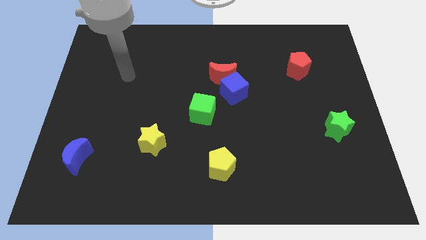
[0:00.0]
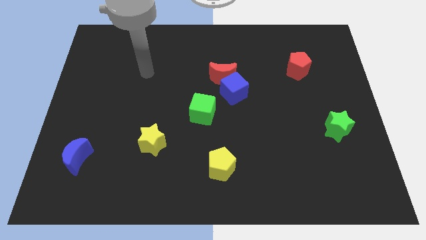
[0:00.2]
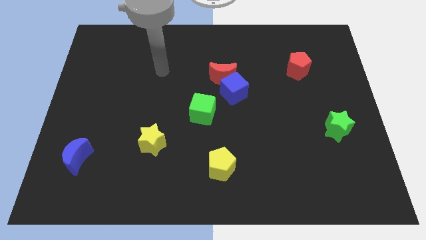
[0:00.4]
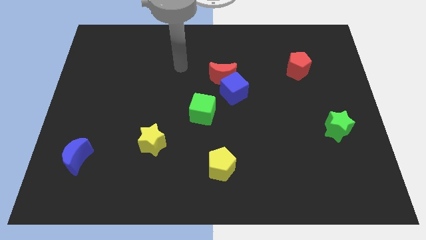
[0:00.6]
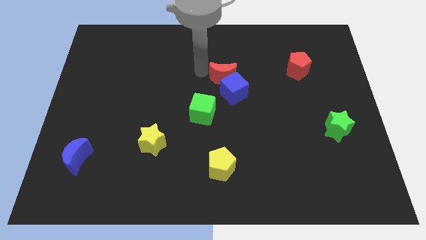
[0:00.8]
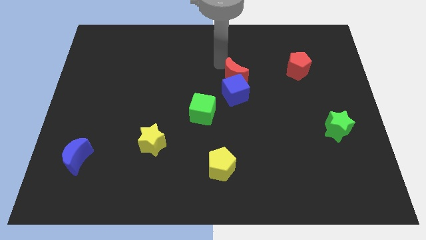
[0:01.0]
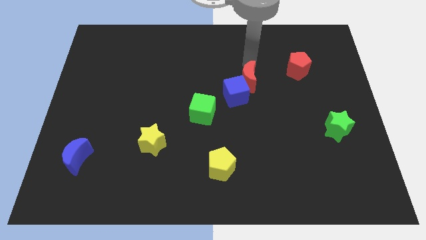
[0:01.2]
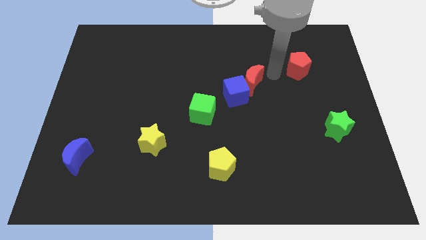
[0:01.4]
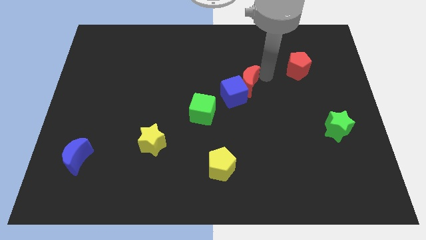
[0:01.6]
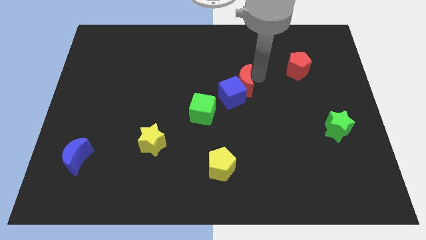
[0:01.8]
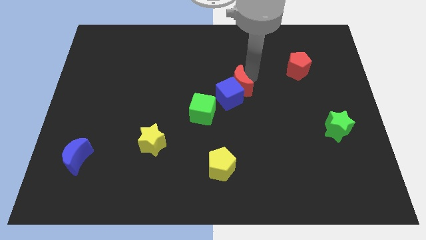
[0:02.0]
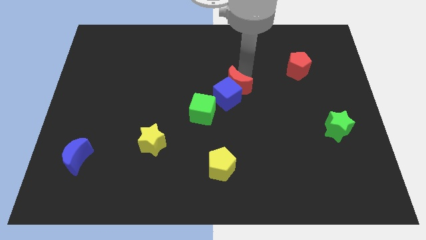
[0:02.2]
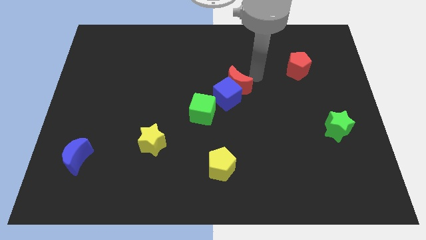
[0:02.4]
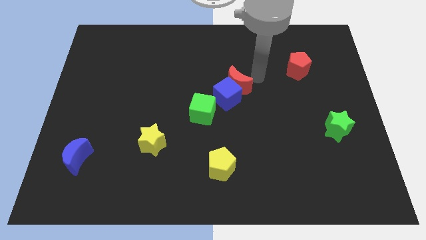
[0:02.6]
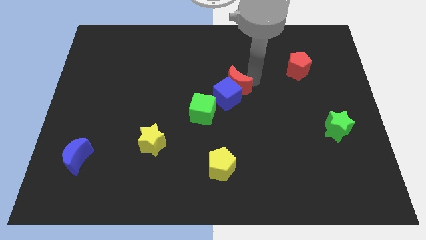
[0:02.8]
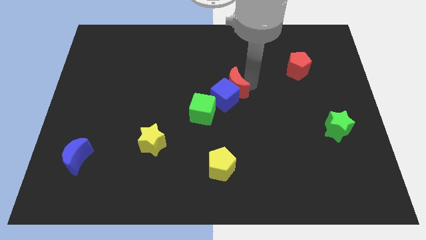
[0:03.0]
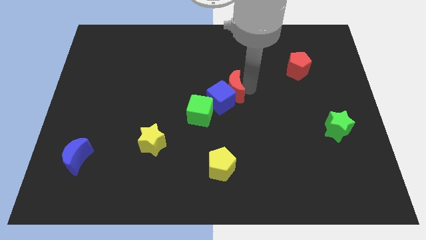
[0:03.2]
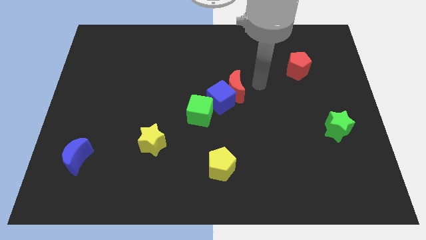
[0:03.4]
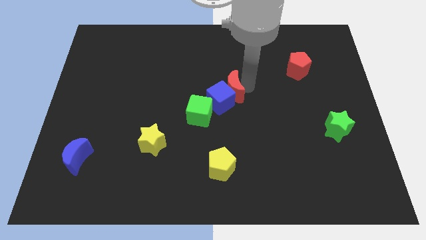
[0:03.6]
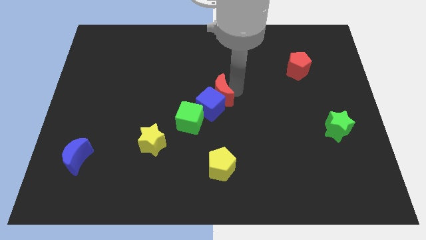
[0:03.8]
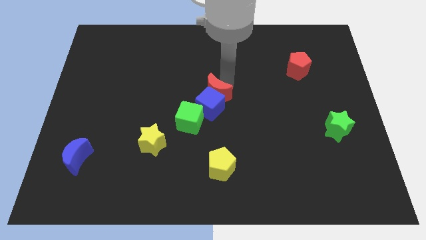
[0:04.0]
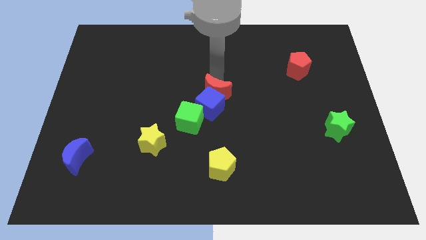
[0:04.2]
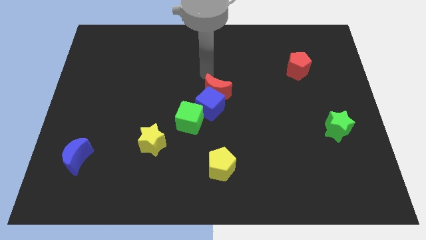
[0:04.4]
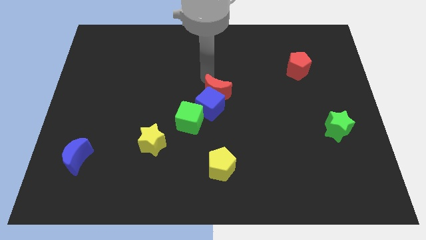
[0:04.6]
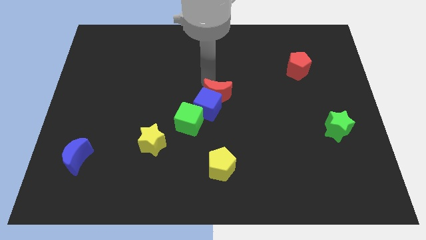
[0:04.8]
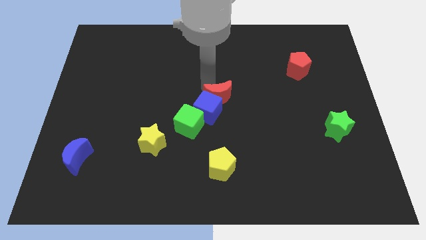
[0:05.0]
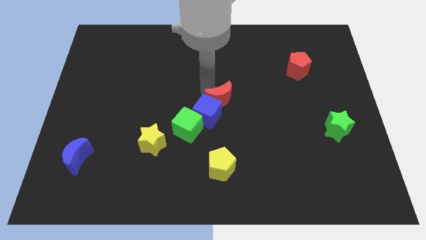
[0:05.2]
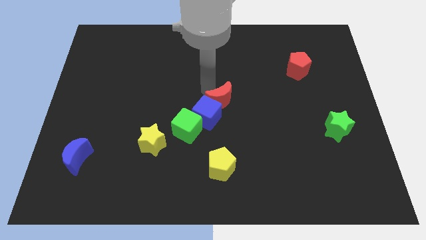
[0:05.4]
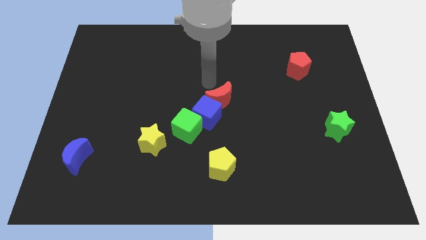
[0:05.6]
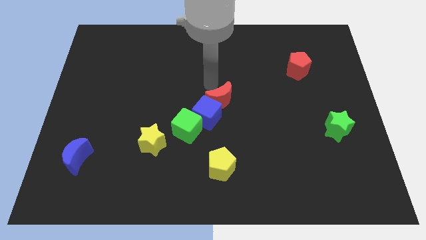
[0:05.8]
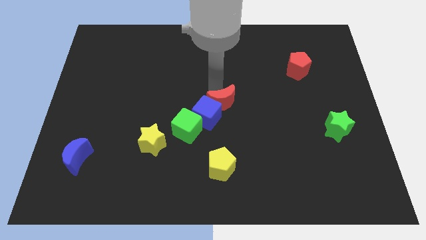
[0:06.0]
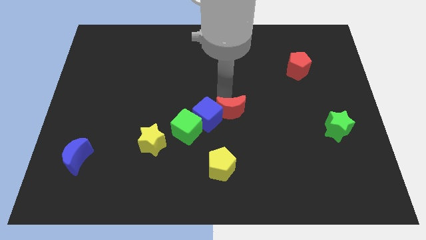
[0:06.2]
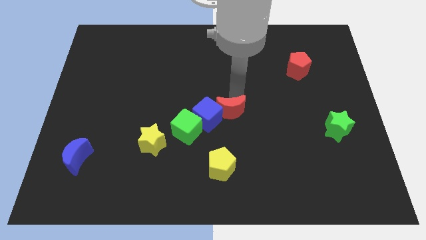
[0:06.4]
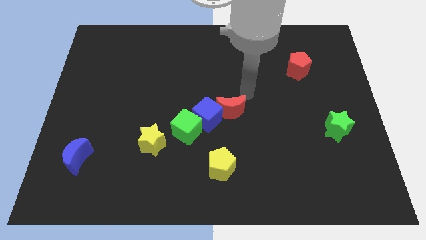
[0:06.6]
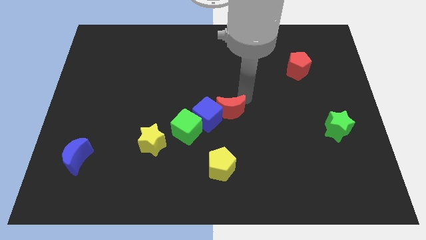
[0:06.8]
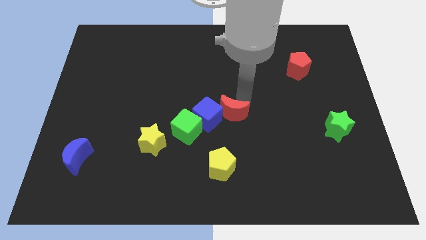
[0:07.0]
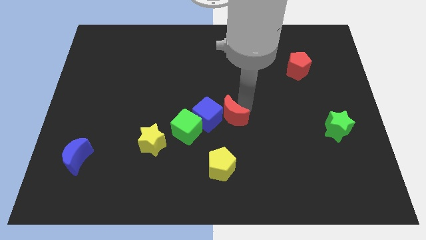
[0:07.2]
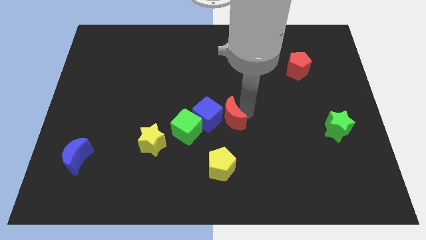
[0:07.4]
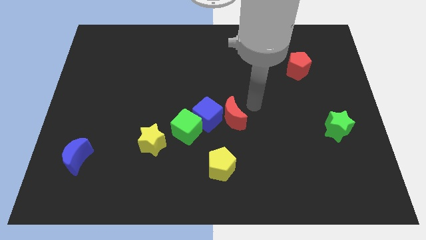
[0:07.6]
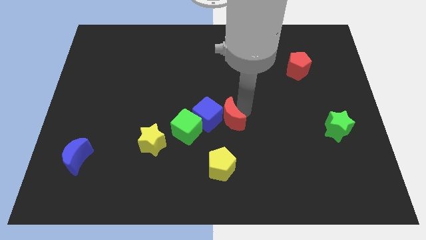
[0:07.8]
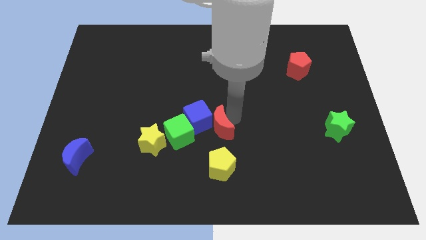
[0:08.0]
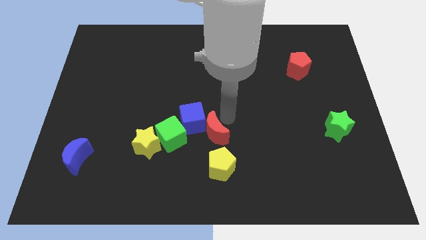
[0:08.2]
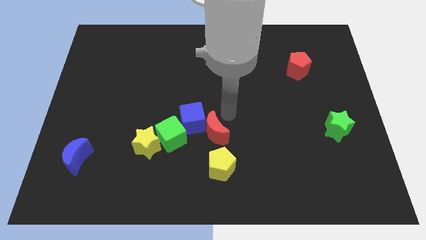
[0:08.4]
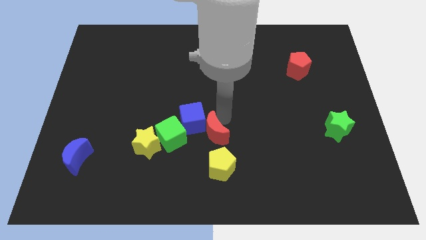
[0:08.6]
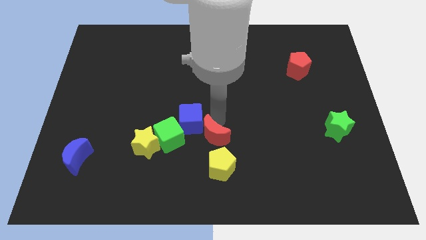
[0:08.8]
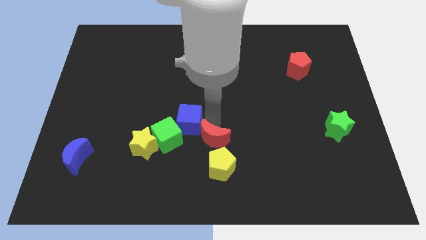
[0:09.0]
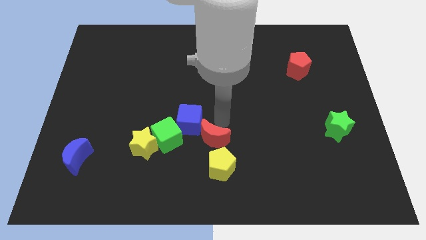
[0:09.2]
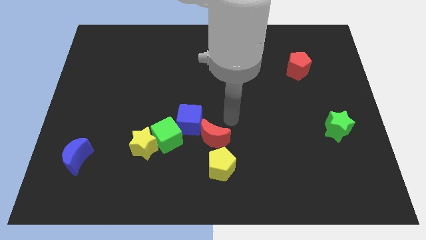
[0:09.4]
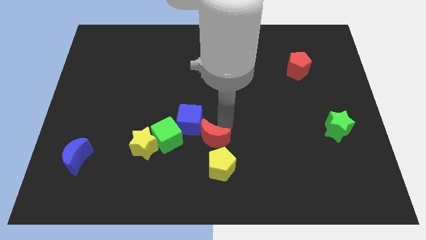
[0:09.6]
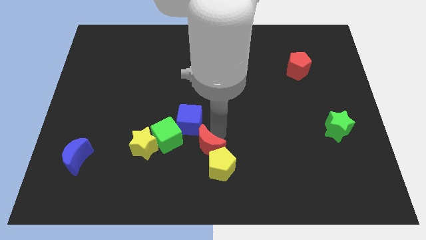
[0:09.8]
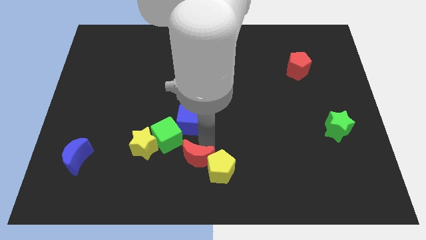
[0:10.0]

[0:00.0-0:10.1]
move the red moon to the bottom
